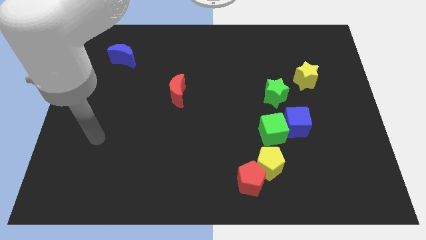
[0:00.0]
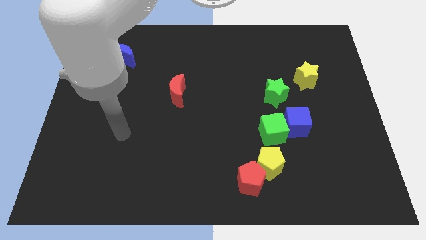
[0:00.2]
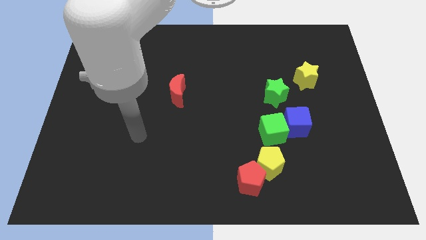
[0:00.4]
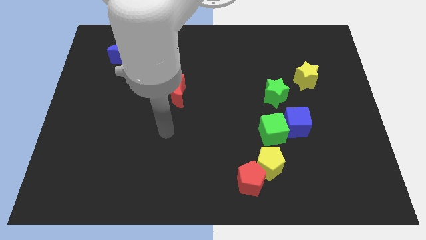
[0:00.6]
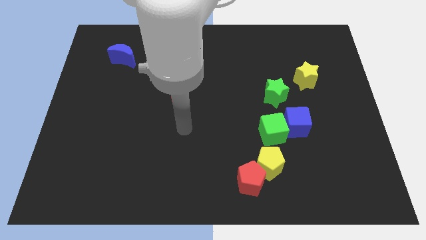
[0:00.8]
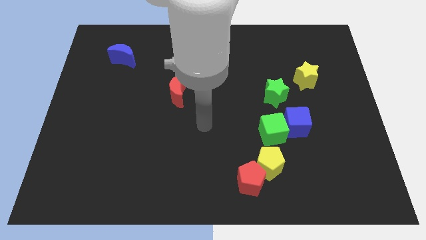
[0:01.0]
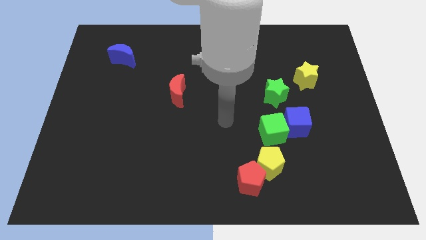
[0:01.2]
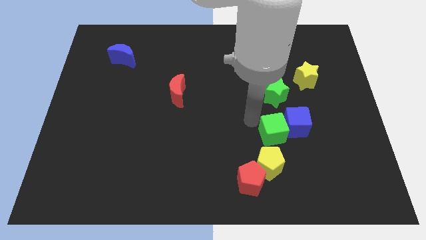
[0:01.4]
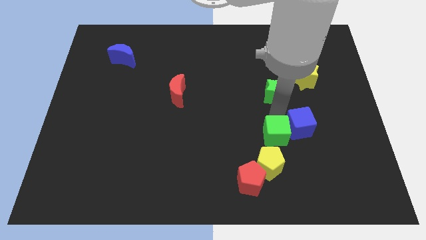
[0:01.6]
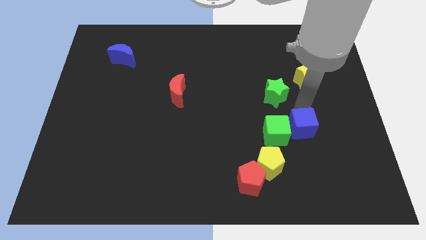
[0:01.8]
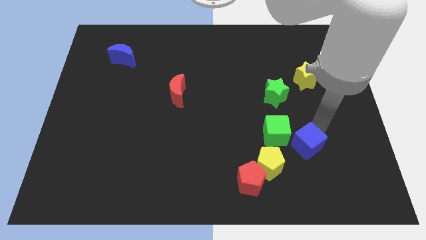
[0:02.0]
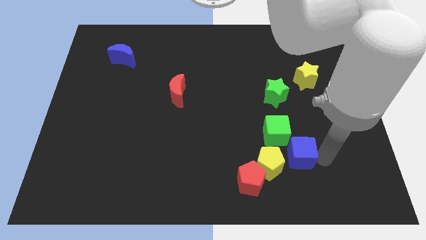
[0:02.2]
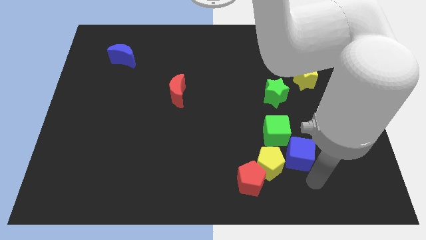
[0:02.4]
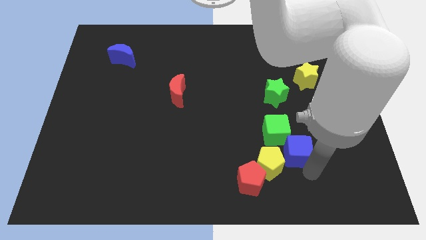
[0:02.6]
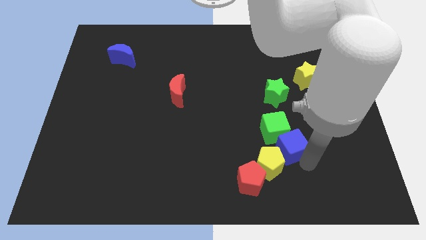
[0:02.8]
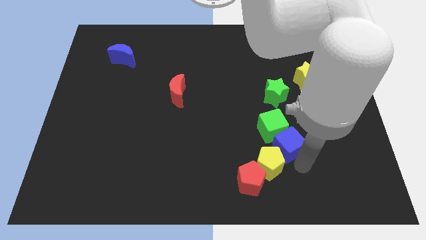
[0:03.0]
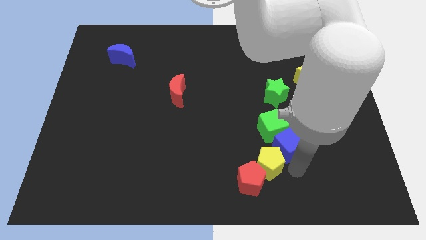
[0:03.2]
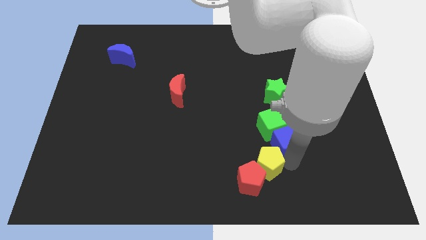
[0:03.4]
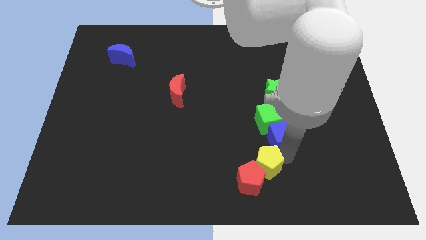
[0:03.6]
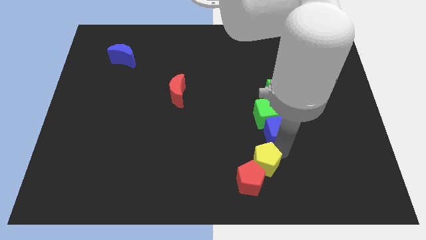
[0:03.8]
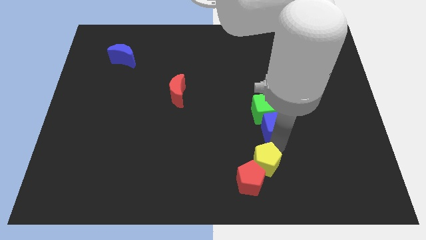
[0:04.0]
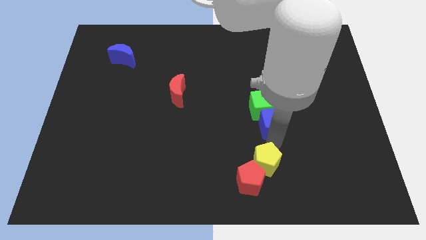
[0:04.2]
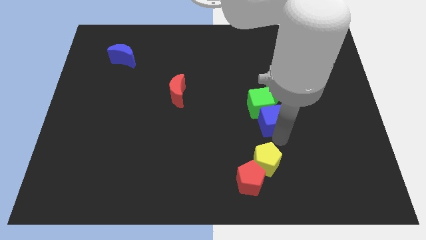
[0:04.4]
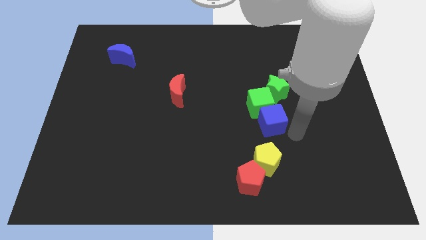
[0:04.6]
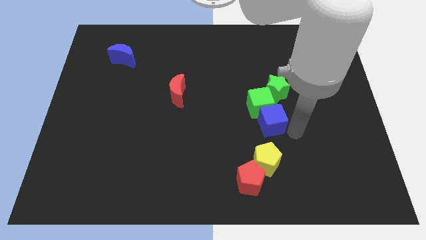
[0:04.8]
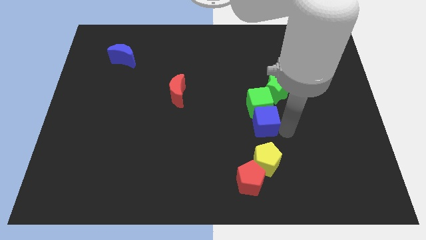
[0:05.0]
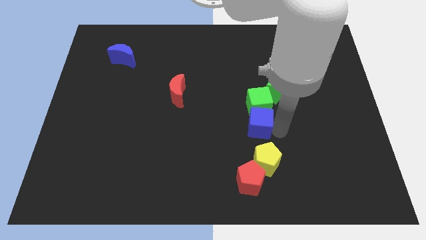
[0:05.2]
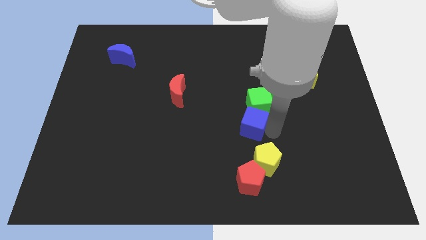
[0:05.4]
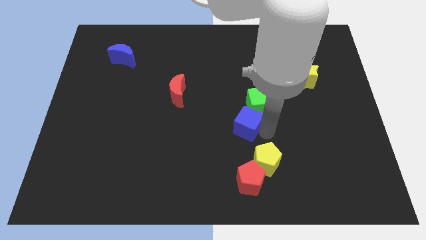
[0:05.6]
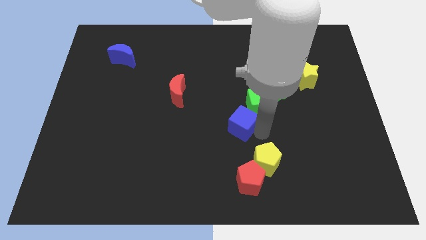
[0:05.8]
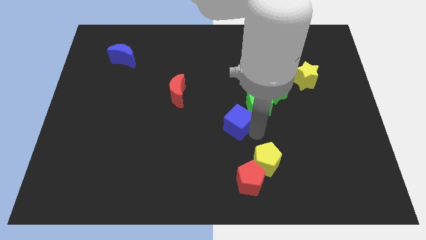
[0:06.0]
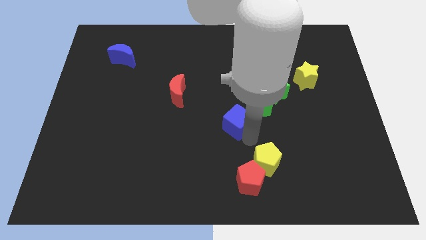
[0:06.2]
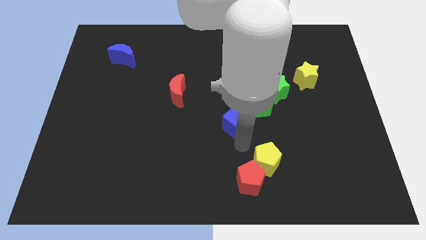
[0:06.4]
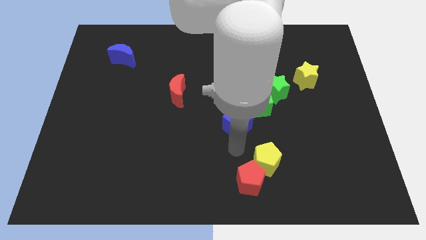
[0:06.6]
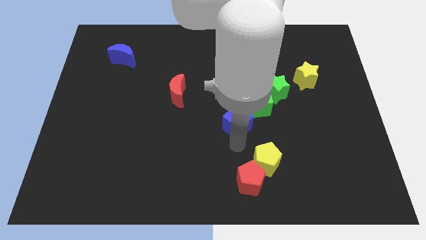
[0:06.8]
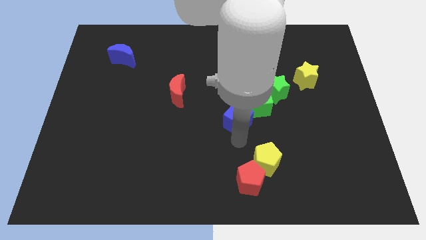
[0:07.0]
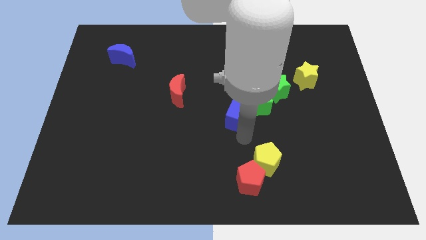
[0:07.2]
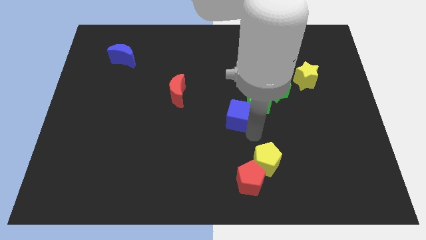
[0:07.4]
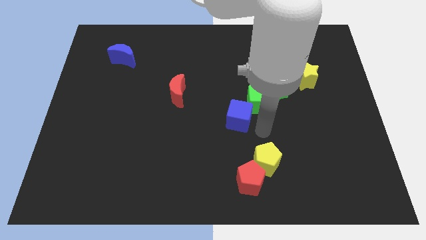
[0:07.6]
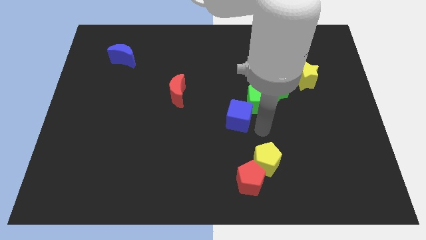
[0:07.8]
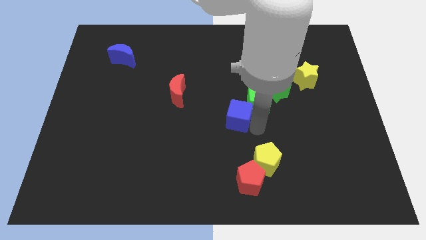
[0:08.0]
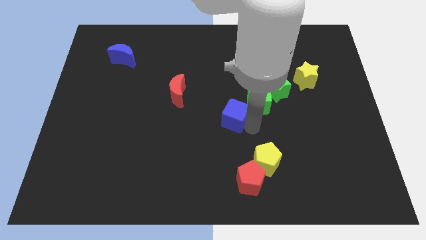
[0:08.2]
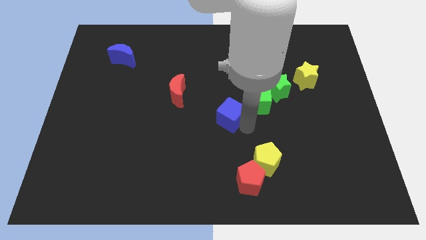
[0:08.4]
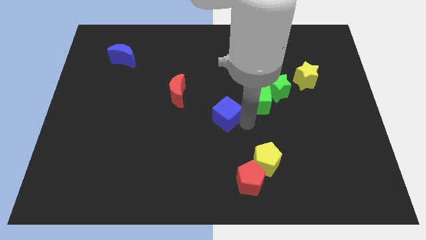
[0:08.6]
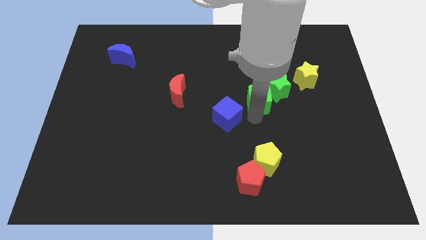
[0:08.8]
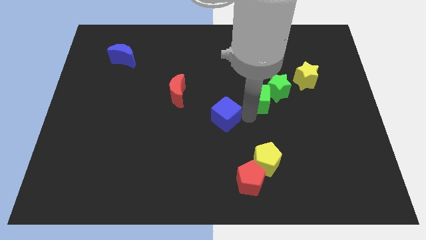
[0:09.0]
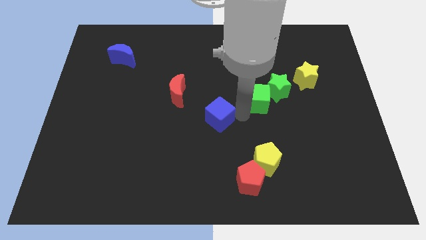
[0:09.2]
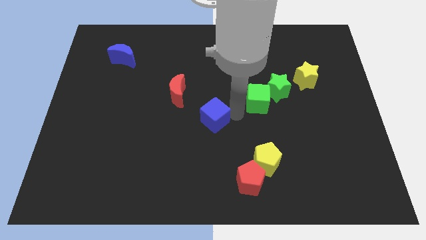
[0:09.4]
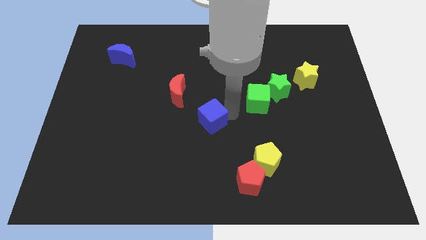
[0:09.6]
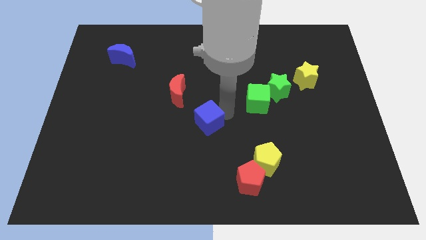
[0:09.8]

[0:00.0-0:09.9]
slide the blue cube left

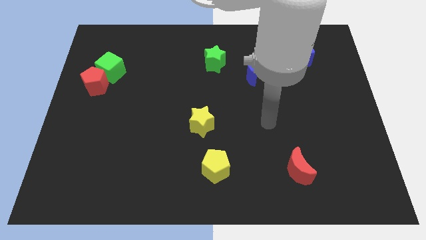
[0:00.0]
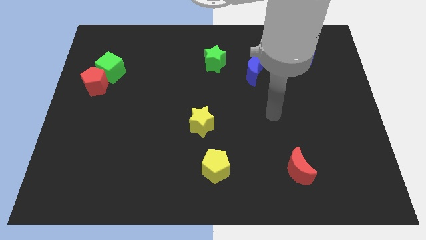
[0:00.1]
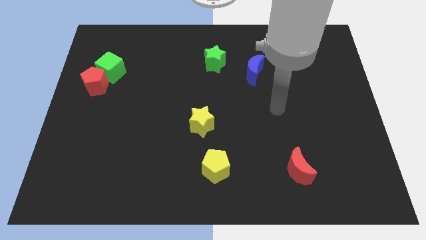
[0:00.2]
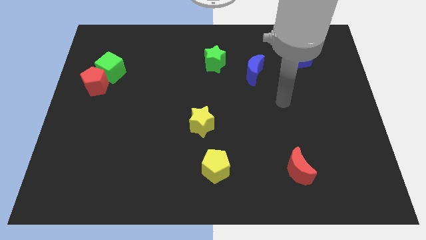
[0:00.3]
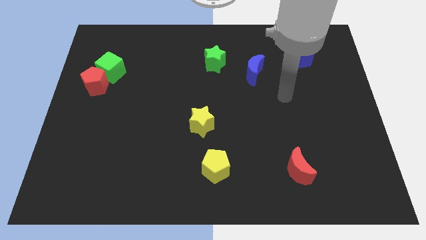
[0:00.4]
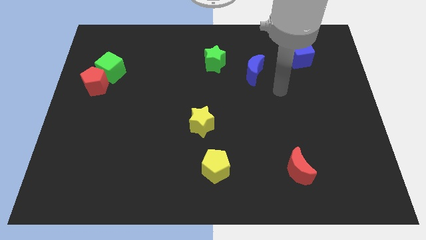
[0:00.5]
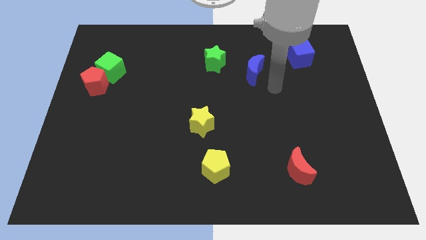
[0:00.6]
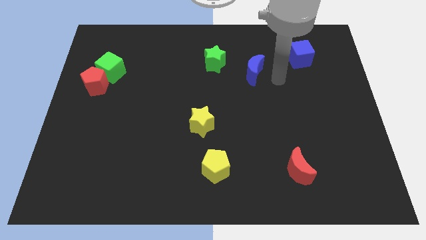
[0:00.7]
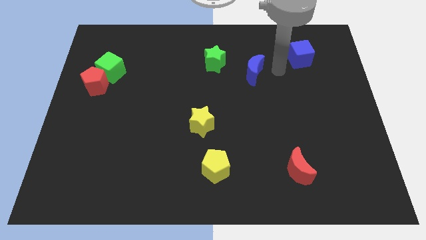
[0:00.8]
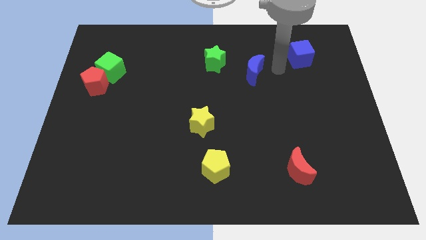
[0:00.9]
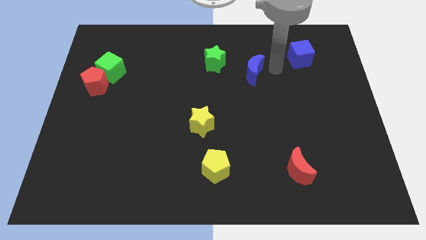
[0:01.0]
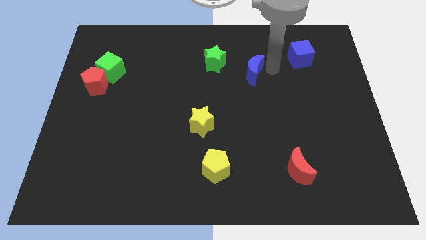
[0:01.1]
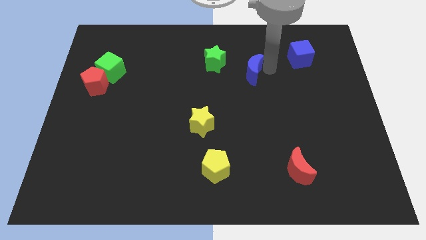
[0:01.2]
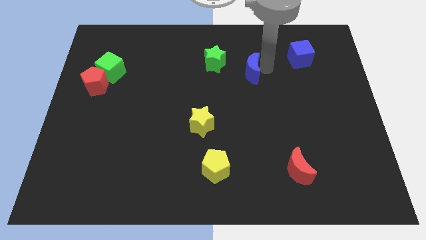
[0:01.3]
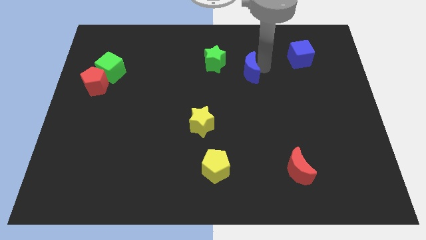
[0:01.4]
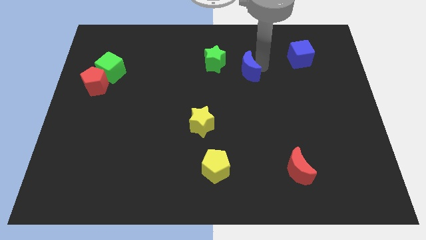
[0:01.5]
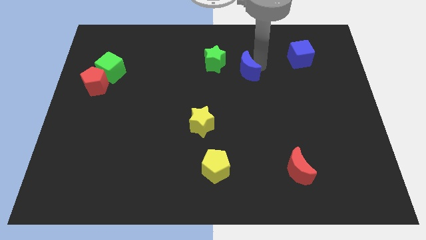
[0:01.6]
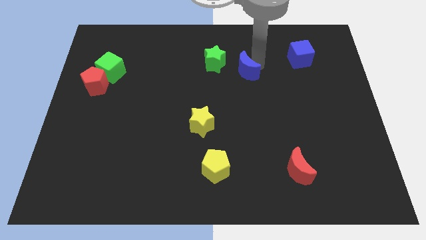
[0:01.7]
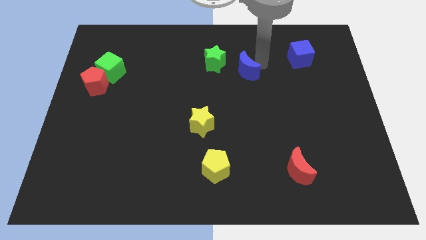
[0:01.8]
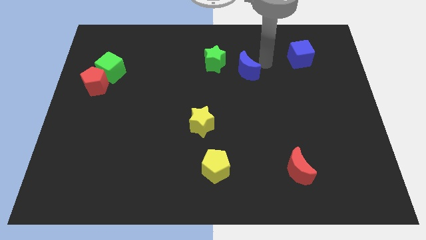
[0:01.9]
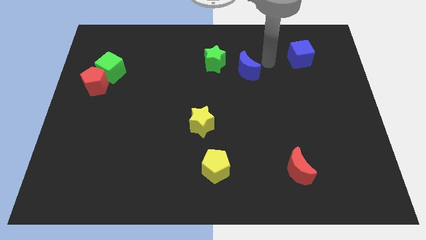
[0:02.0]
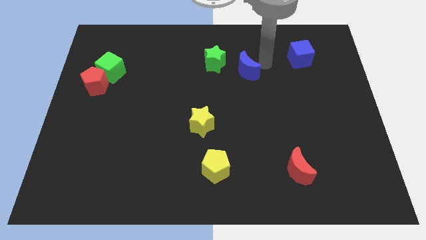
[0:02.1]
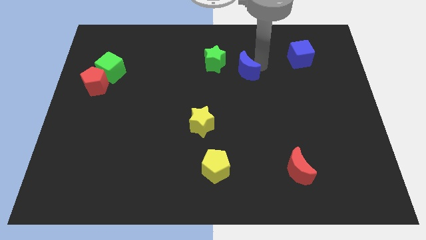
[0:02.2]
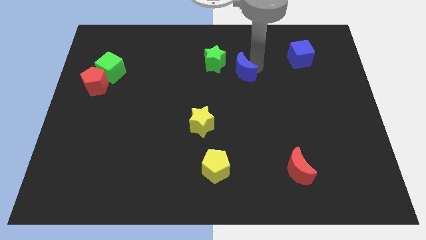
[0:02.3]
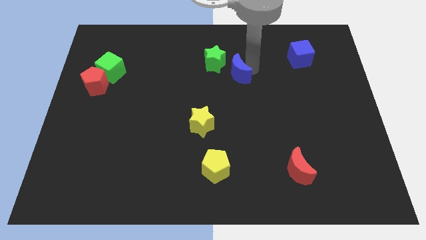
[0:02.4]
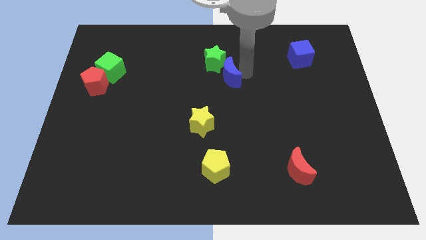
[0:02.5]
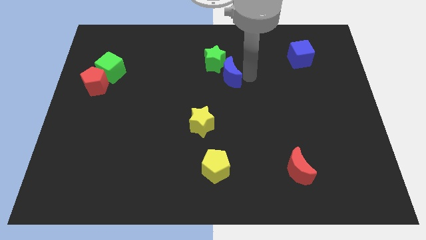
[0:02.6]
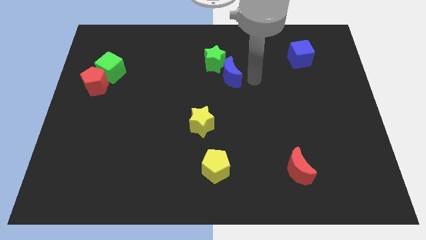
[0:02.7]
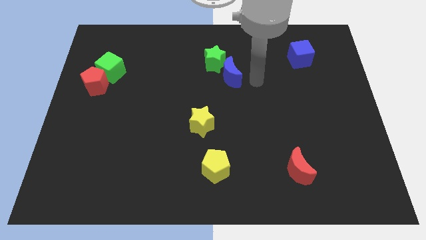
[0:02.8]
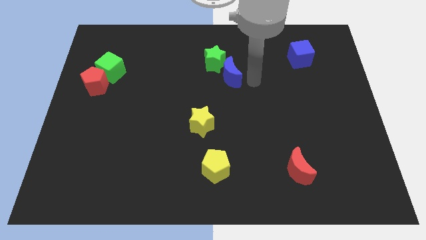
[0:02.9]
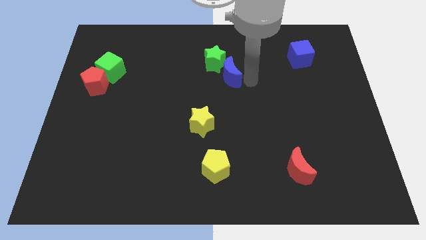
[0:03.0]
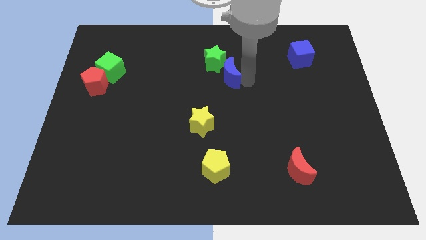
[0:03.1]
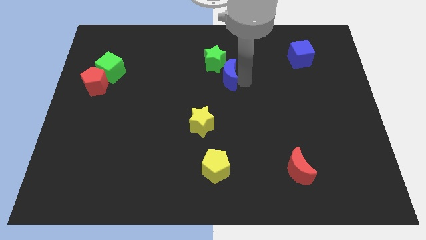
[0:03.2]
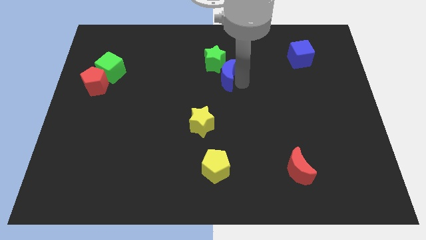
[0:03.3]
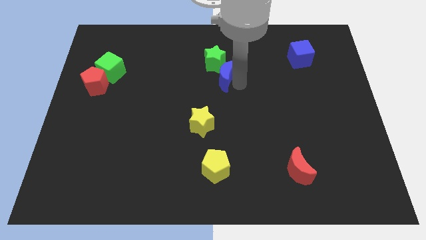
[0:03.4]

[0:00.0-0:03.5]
move the blue moon somewhat to the left

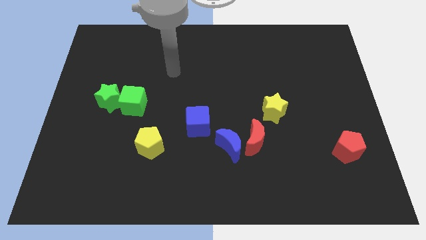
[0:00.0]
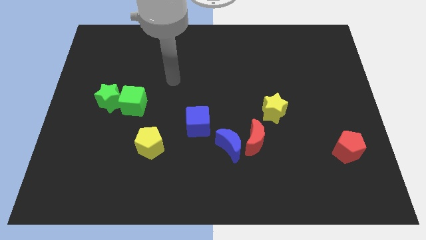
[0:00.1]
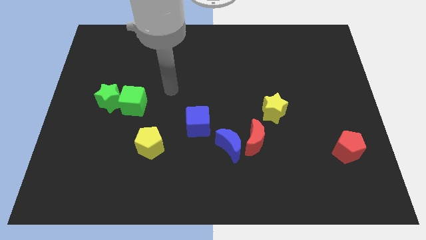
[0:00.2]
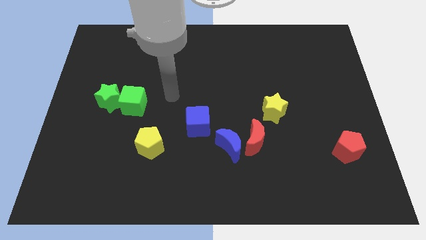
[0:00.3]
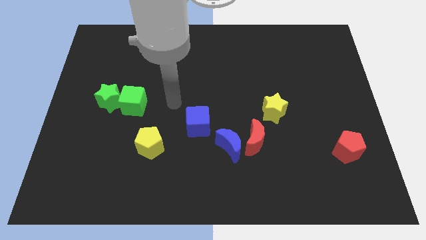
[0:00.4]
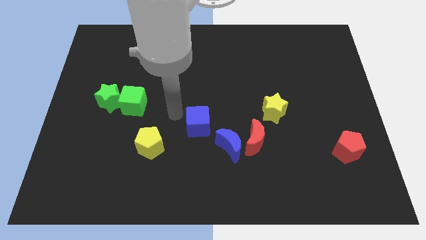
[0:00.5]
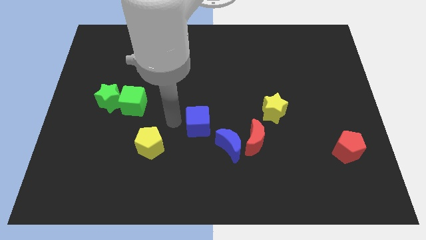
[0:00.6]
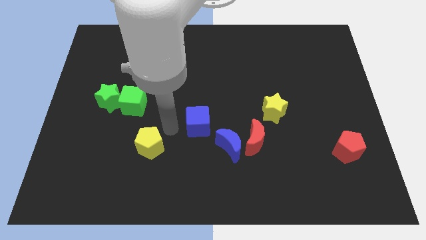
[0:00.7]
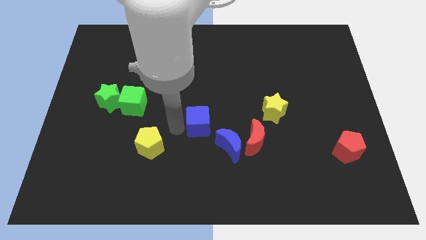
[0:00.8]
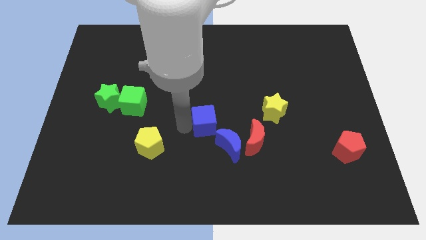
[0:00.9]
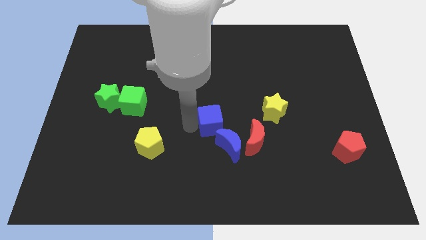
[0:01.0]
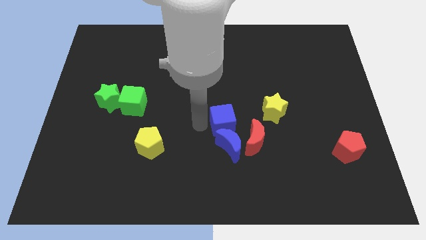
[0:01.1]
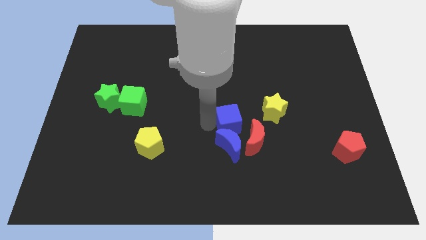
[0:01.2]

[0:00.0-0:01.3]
slightly move the blue cube right
